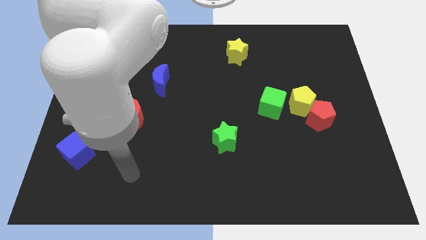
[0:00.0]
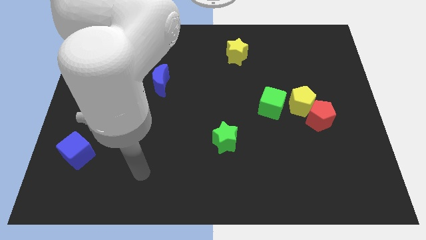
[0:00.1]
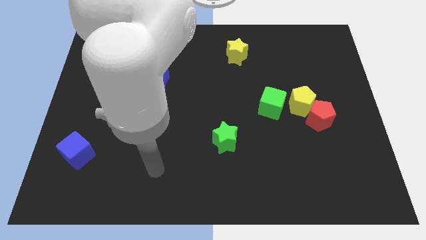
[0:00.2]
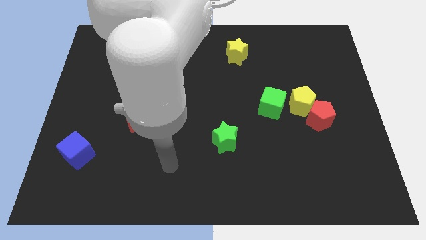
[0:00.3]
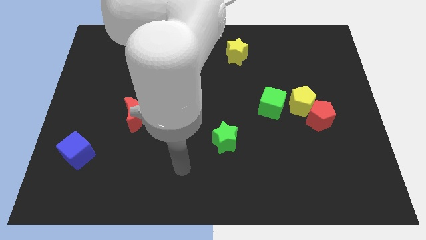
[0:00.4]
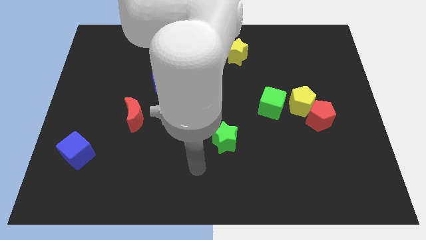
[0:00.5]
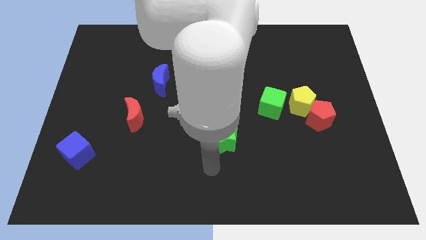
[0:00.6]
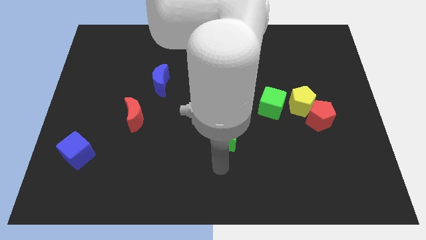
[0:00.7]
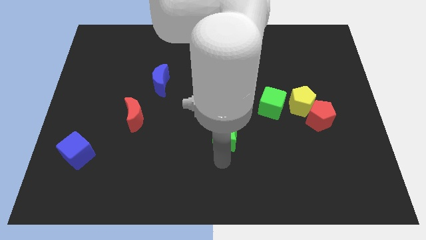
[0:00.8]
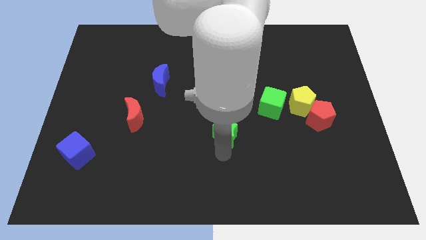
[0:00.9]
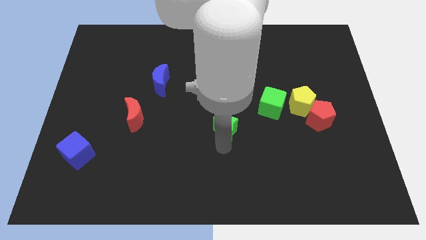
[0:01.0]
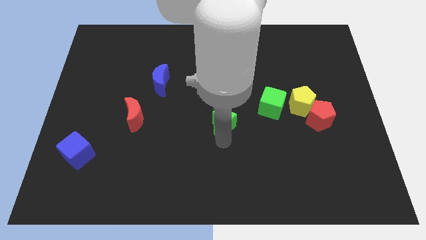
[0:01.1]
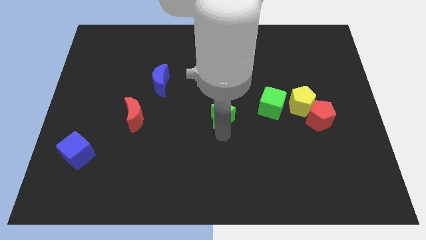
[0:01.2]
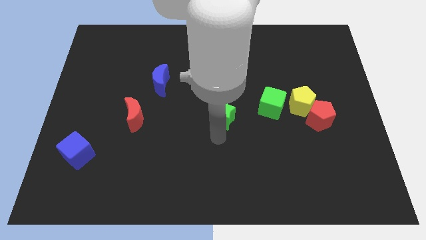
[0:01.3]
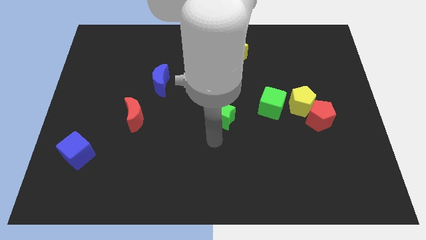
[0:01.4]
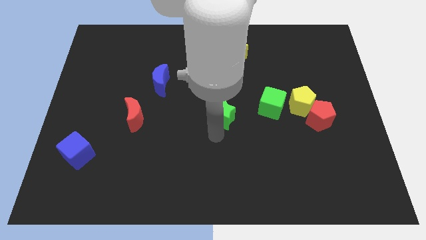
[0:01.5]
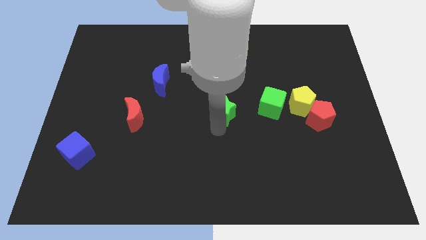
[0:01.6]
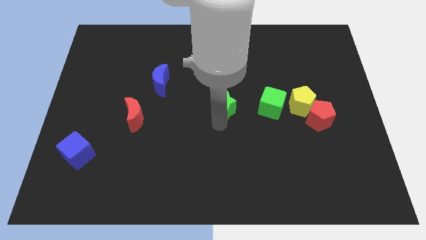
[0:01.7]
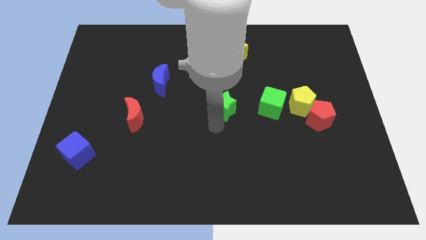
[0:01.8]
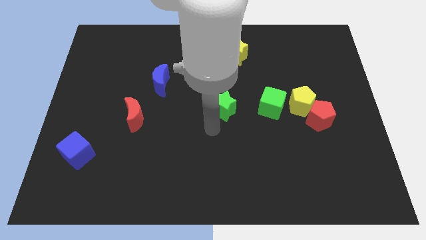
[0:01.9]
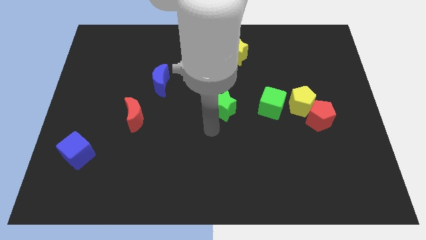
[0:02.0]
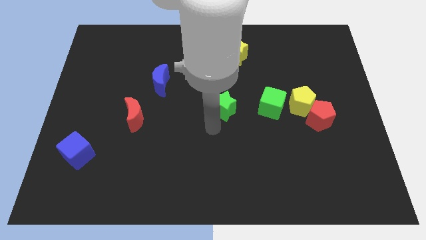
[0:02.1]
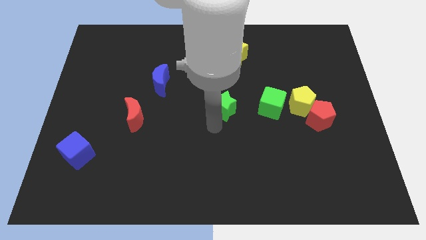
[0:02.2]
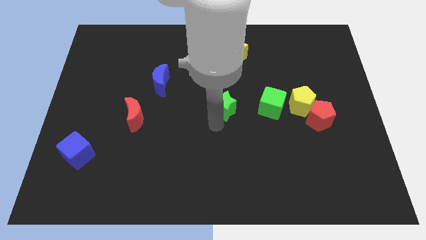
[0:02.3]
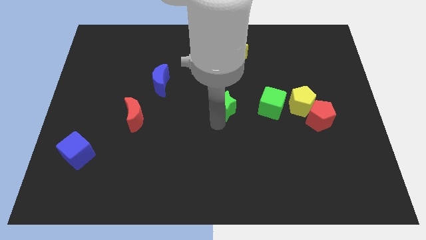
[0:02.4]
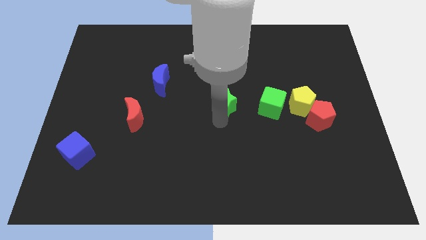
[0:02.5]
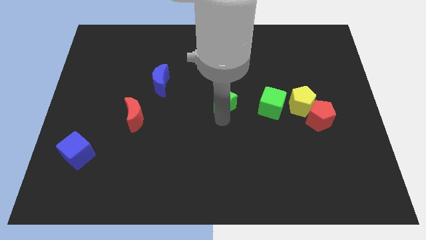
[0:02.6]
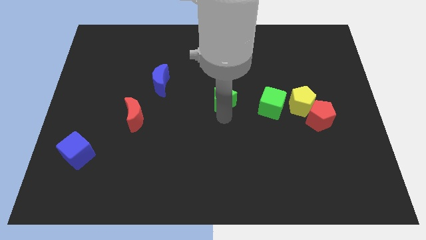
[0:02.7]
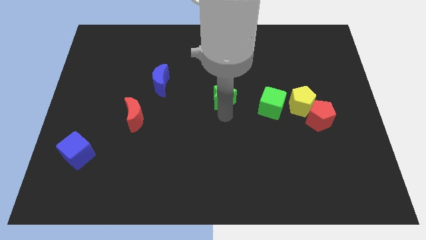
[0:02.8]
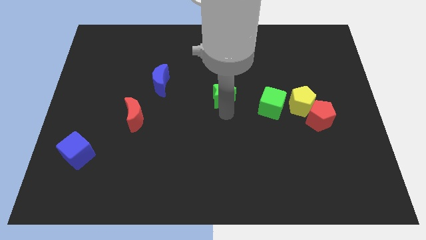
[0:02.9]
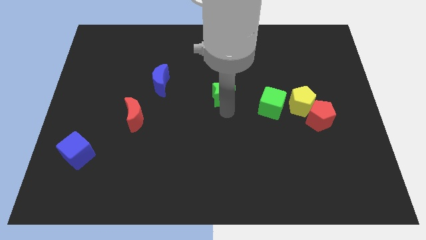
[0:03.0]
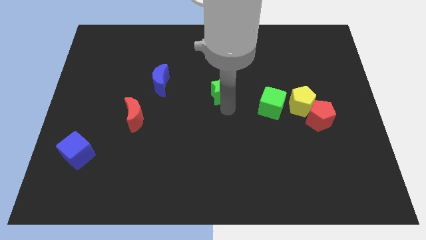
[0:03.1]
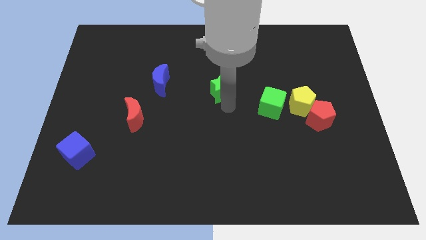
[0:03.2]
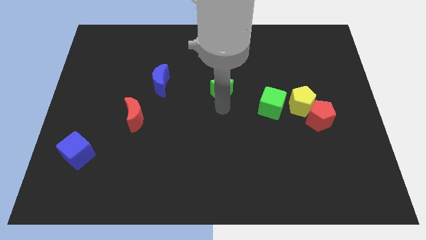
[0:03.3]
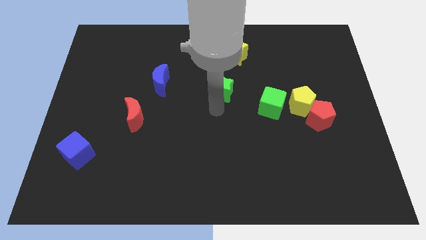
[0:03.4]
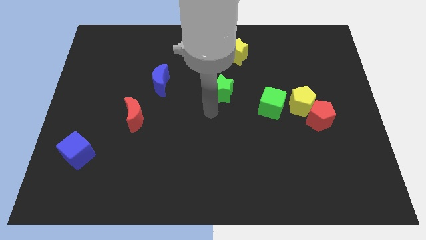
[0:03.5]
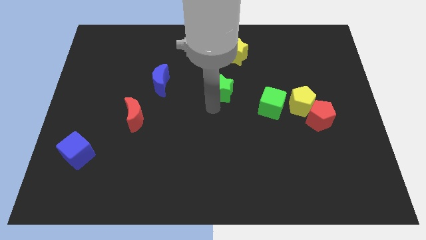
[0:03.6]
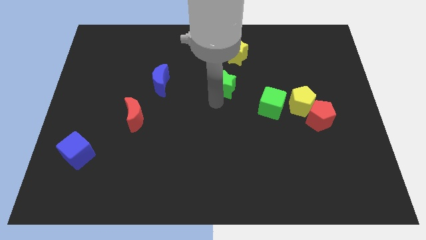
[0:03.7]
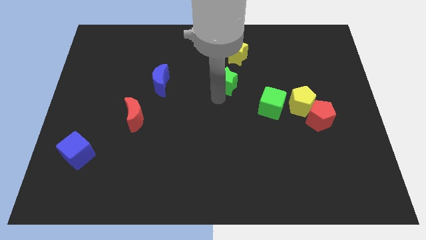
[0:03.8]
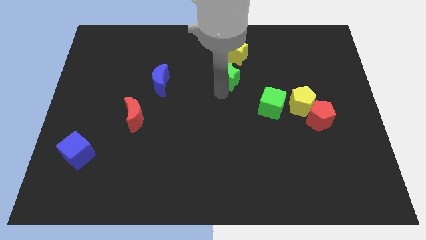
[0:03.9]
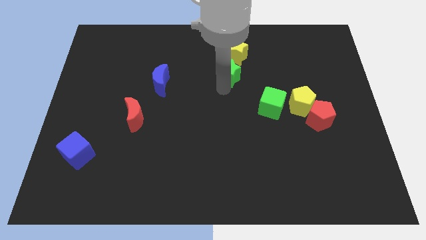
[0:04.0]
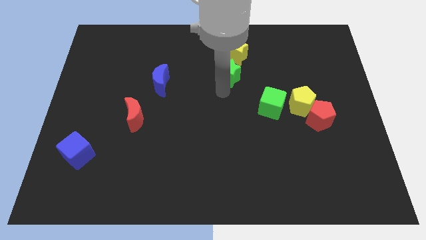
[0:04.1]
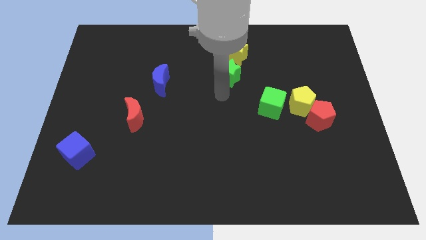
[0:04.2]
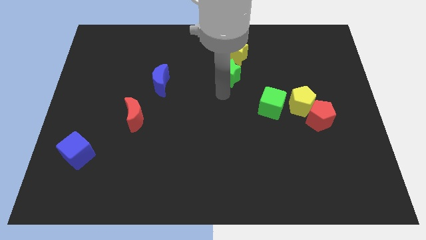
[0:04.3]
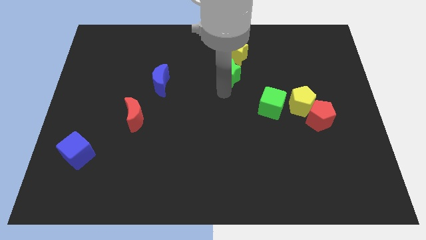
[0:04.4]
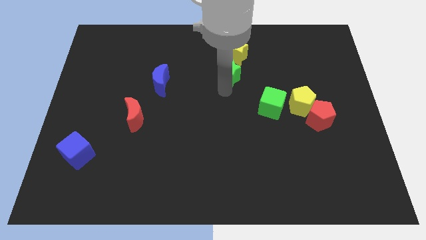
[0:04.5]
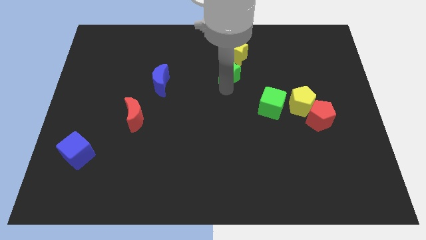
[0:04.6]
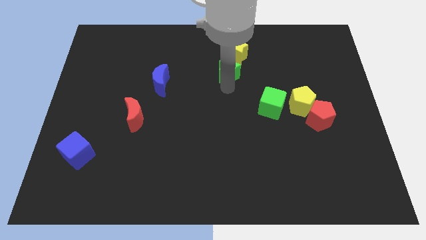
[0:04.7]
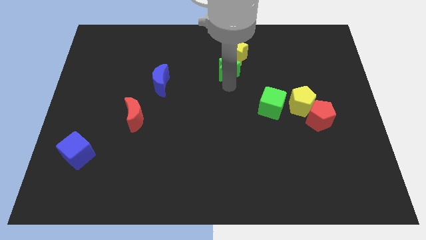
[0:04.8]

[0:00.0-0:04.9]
slide the green star towards the yellow star

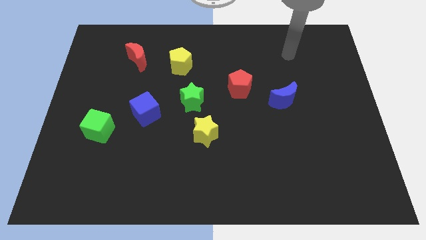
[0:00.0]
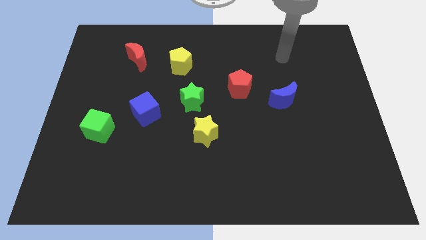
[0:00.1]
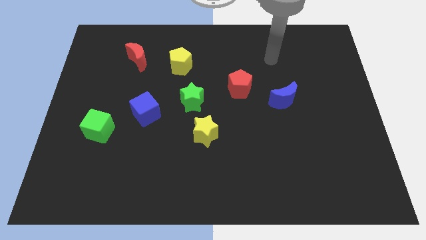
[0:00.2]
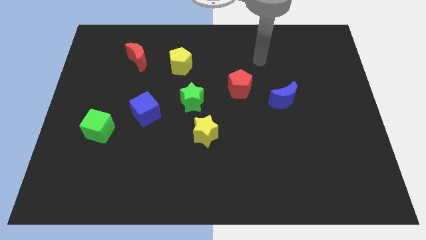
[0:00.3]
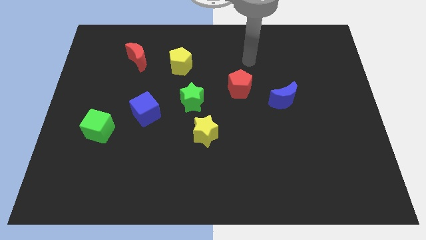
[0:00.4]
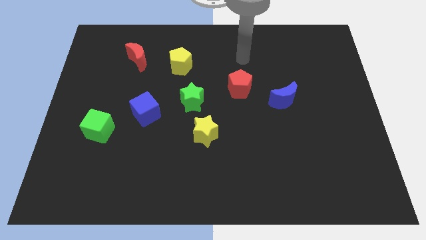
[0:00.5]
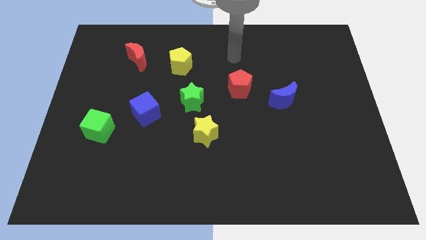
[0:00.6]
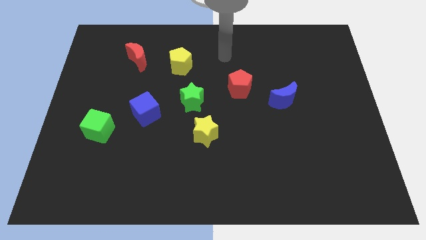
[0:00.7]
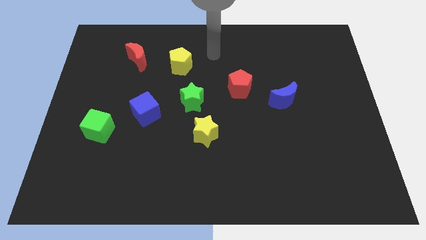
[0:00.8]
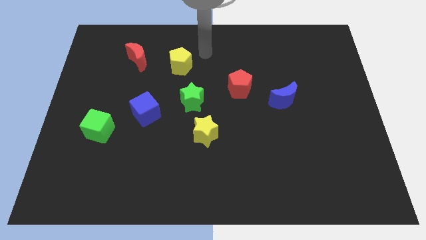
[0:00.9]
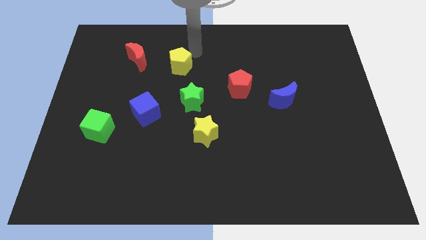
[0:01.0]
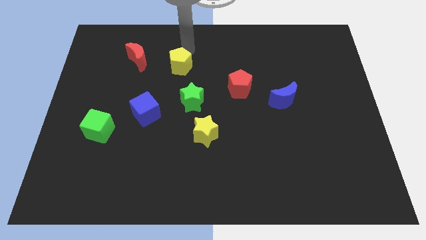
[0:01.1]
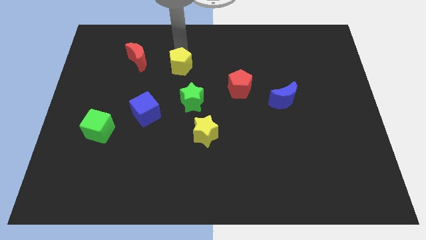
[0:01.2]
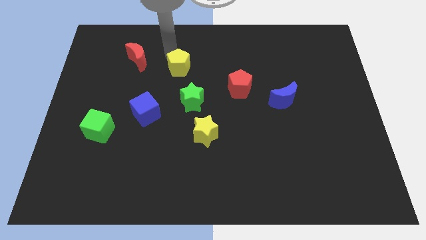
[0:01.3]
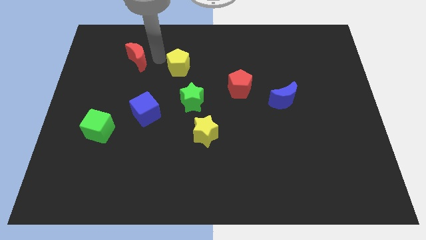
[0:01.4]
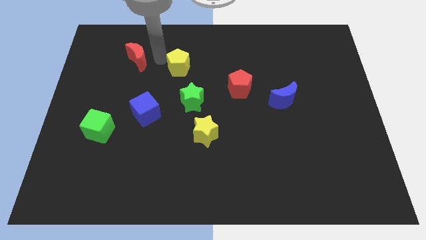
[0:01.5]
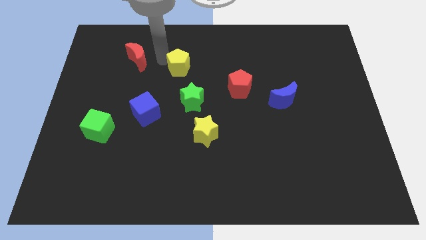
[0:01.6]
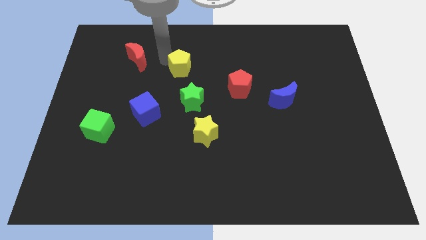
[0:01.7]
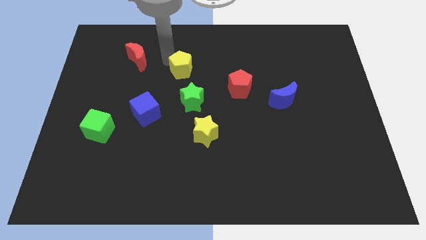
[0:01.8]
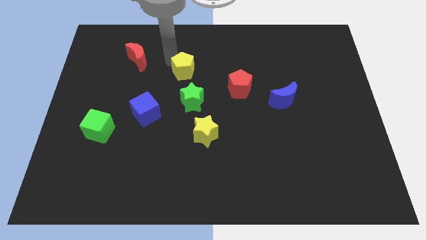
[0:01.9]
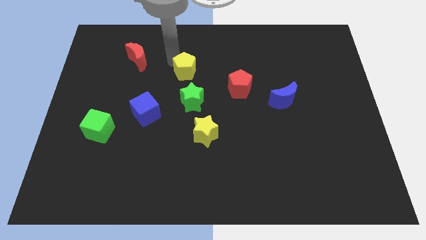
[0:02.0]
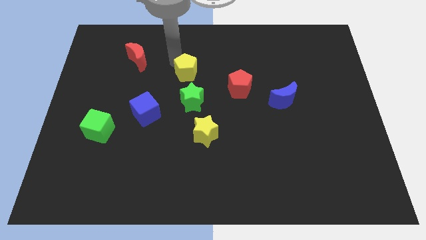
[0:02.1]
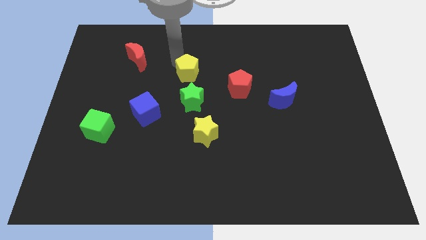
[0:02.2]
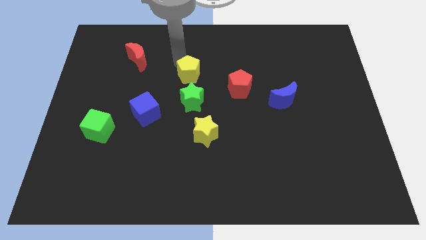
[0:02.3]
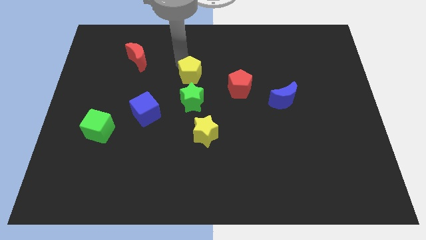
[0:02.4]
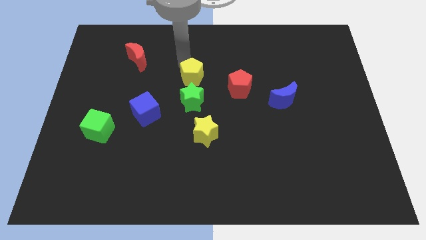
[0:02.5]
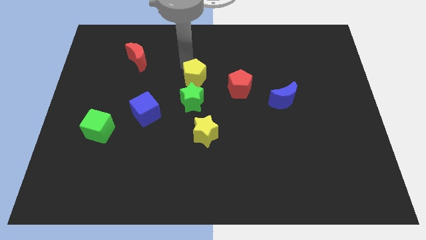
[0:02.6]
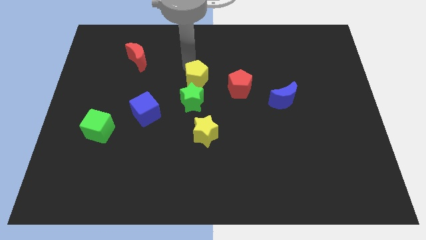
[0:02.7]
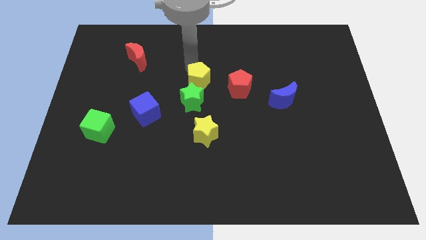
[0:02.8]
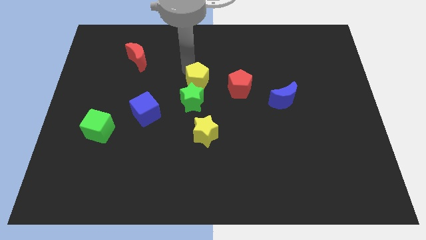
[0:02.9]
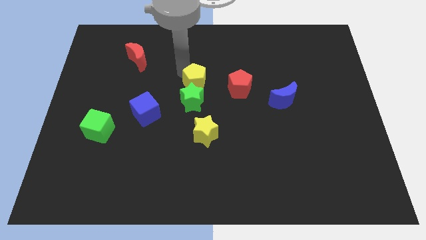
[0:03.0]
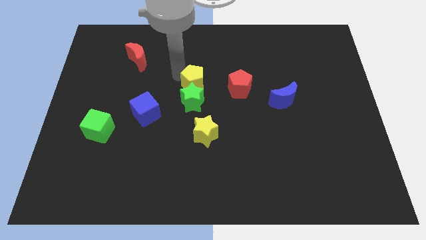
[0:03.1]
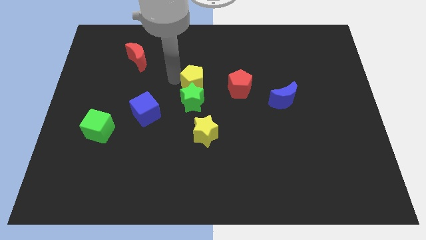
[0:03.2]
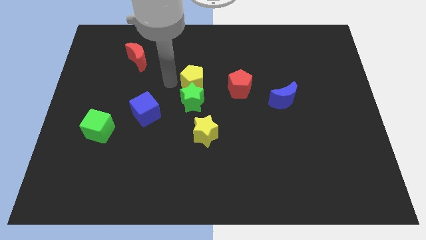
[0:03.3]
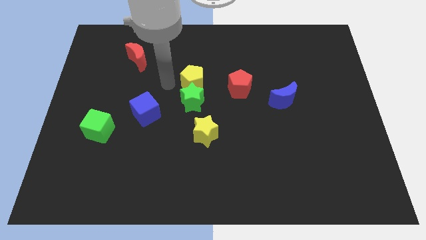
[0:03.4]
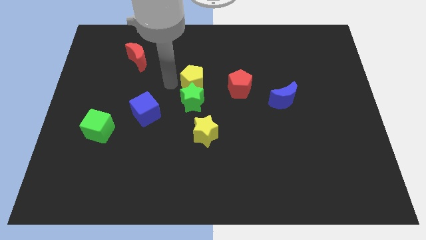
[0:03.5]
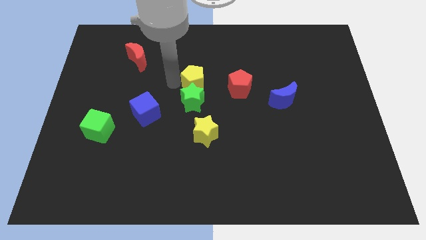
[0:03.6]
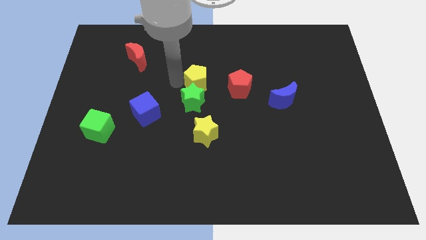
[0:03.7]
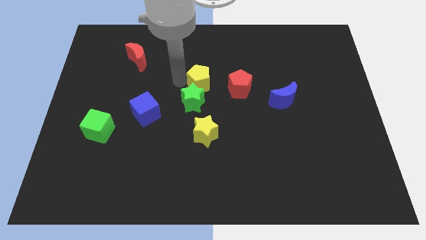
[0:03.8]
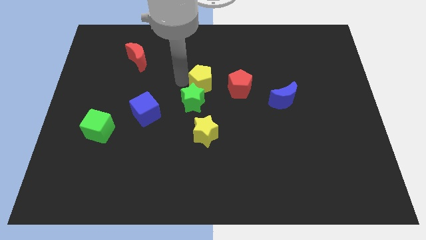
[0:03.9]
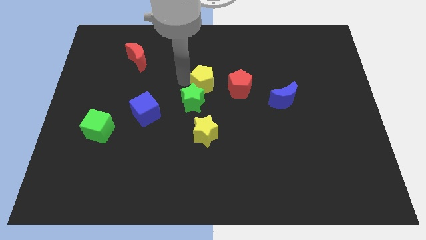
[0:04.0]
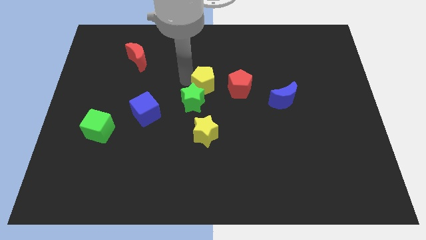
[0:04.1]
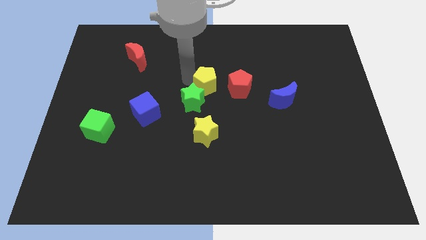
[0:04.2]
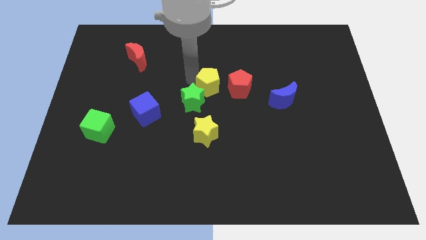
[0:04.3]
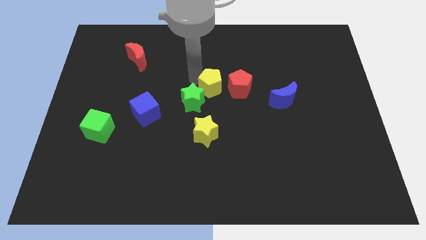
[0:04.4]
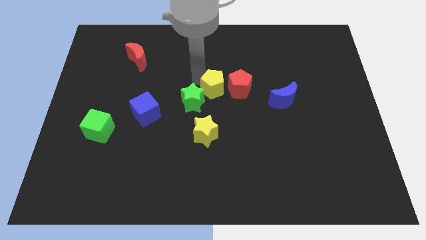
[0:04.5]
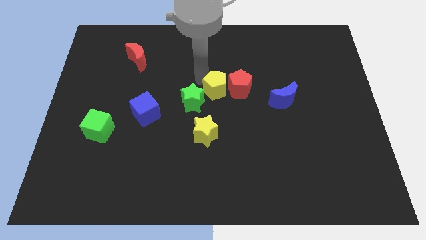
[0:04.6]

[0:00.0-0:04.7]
push the yellow pentagon to the red pentagon
